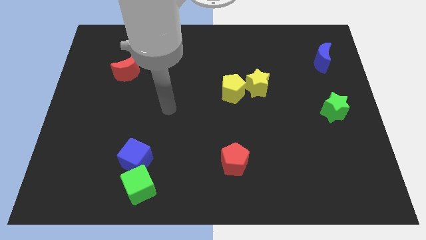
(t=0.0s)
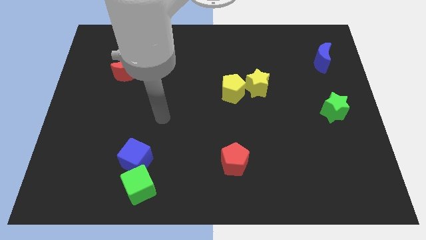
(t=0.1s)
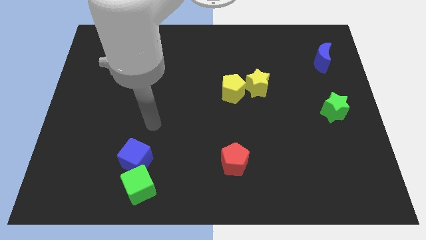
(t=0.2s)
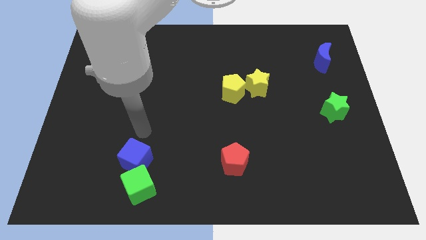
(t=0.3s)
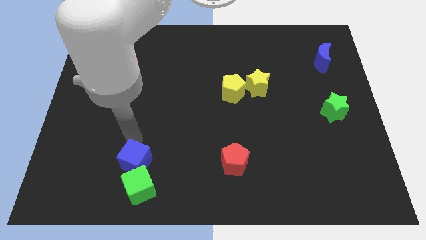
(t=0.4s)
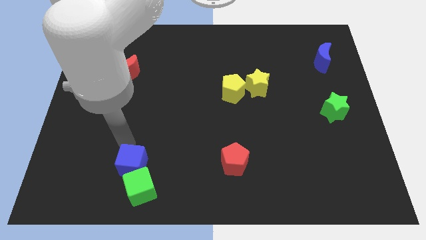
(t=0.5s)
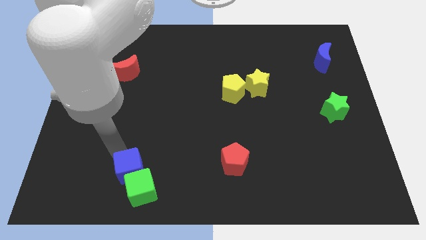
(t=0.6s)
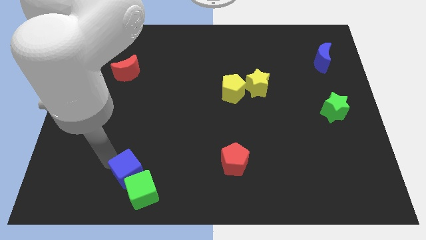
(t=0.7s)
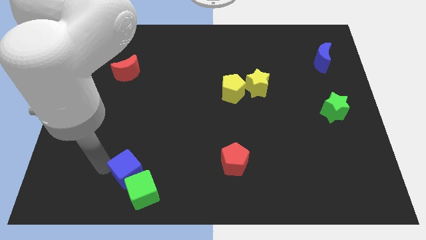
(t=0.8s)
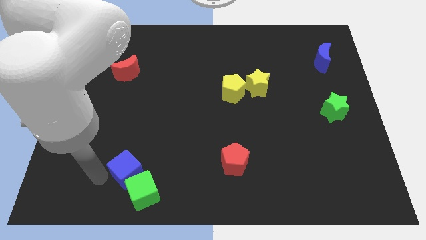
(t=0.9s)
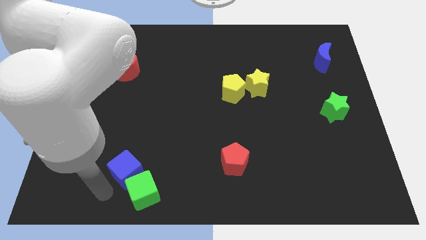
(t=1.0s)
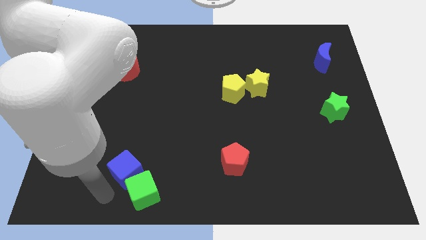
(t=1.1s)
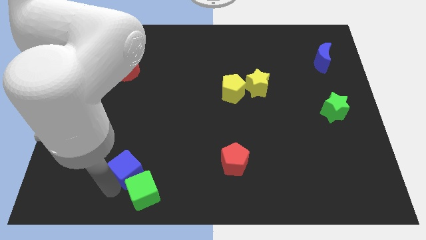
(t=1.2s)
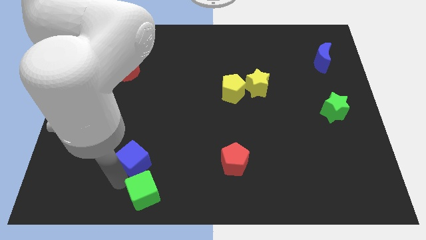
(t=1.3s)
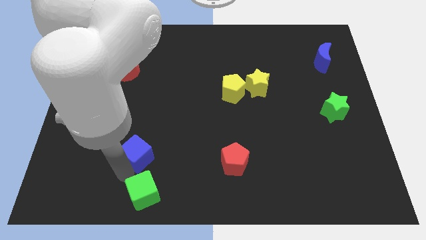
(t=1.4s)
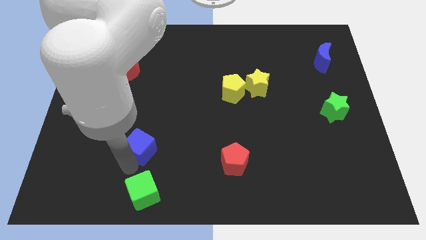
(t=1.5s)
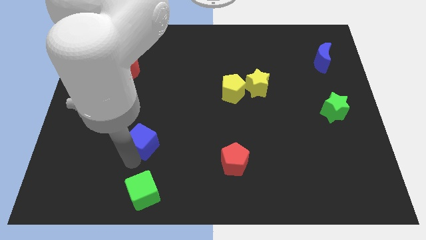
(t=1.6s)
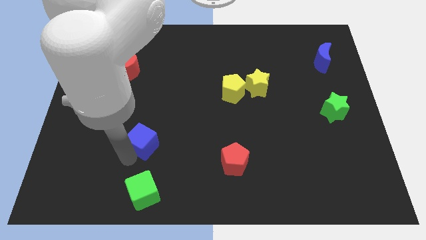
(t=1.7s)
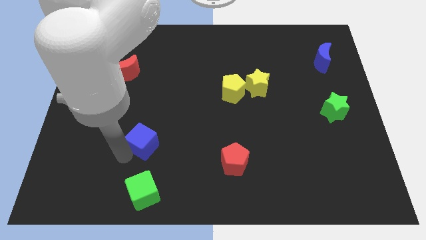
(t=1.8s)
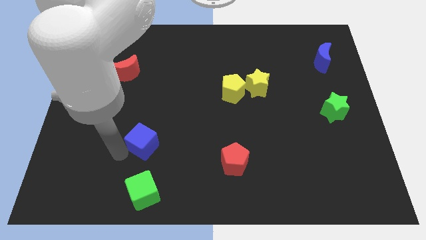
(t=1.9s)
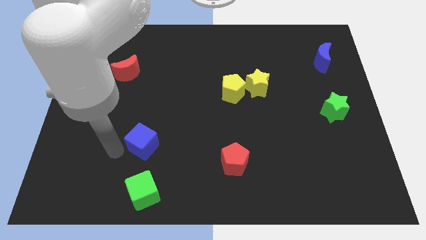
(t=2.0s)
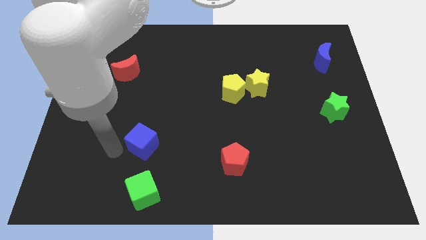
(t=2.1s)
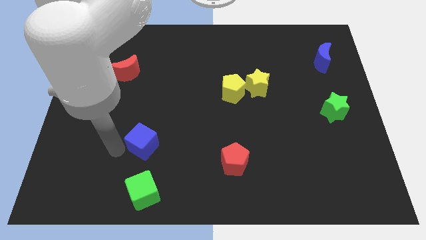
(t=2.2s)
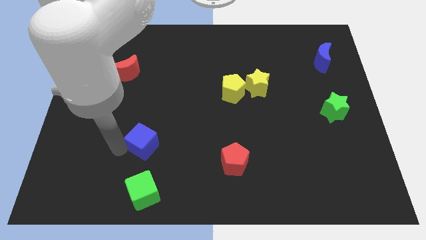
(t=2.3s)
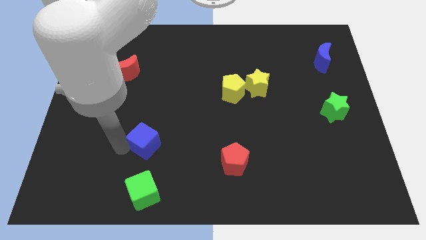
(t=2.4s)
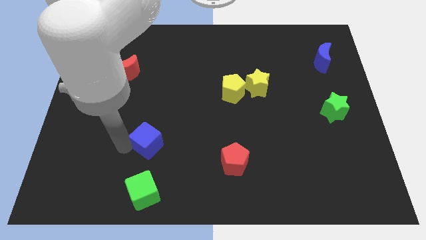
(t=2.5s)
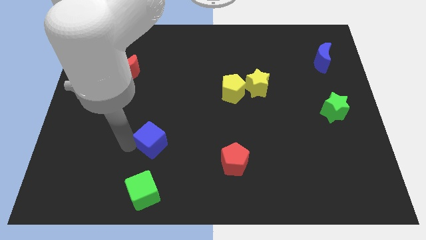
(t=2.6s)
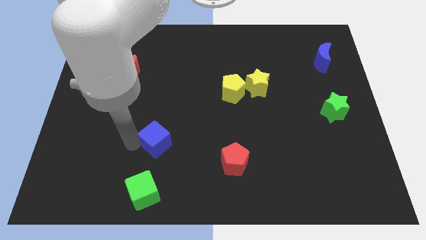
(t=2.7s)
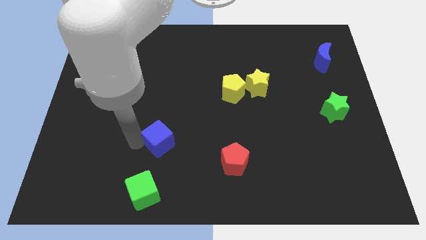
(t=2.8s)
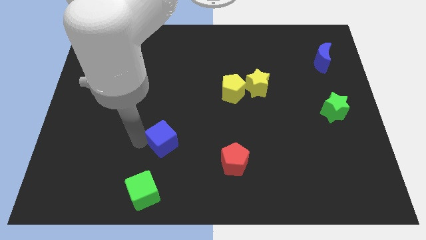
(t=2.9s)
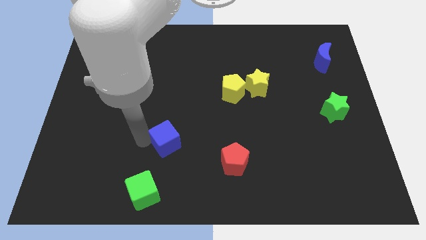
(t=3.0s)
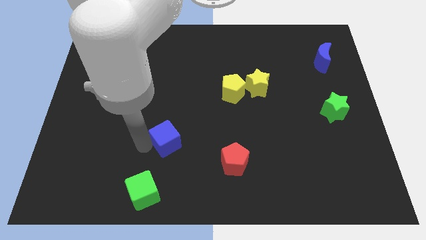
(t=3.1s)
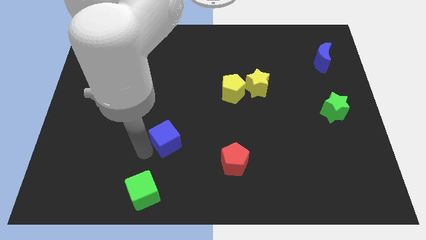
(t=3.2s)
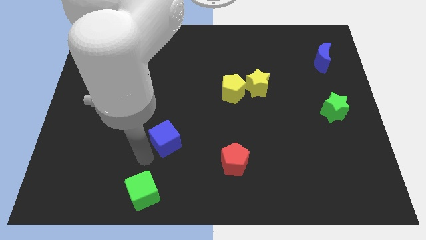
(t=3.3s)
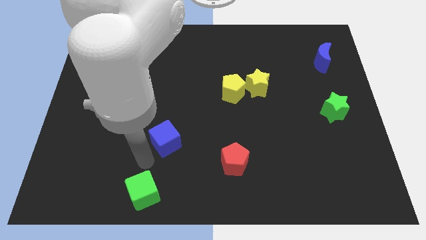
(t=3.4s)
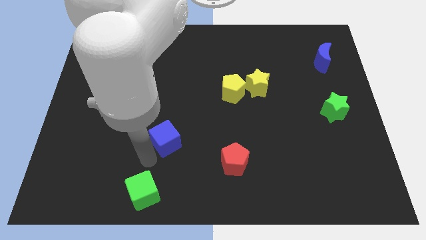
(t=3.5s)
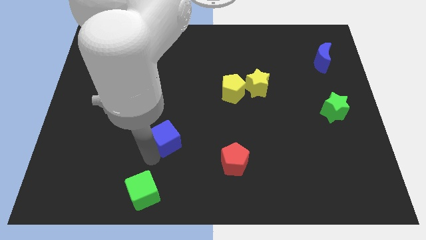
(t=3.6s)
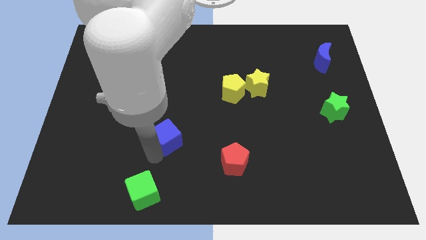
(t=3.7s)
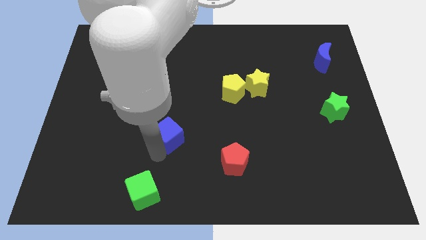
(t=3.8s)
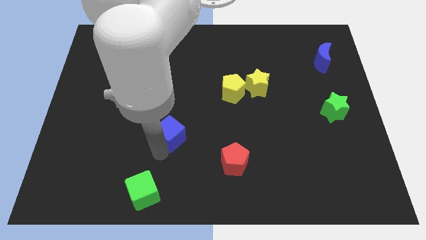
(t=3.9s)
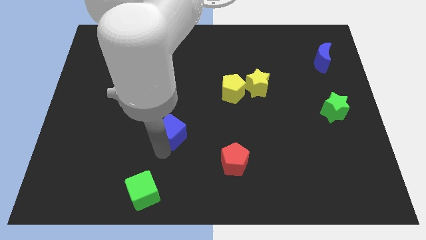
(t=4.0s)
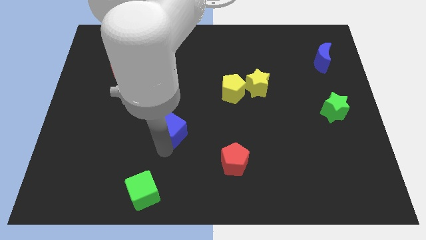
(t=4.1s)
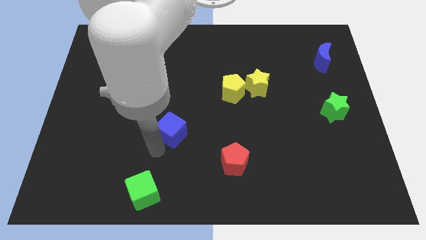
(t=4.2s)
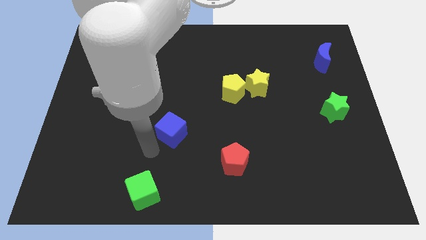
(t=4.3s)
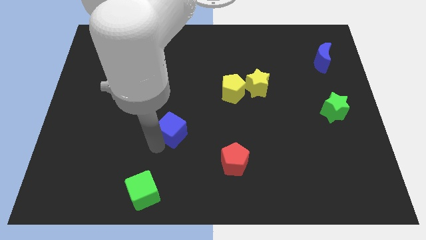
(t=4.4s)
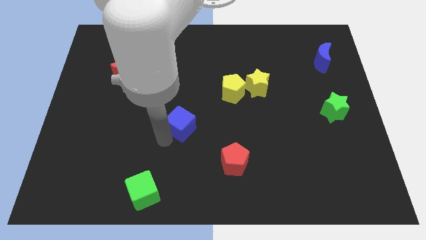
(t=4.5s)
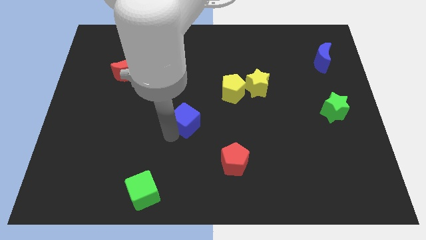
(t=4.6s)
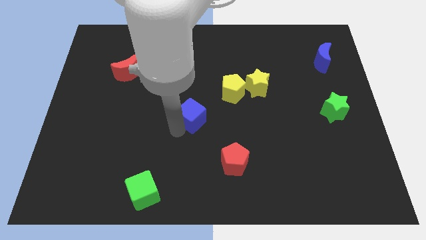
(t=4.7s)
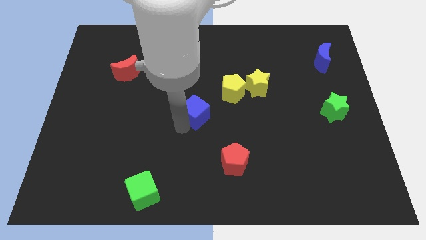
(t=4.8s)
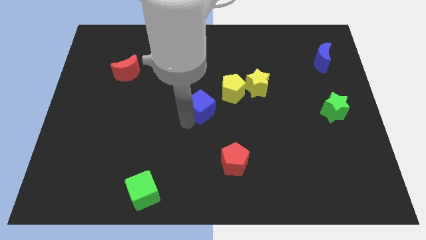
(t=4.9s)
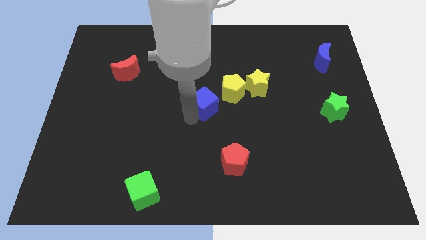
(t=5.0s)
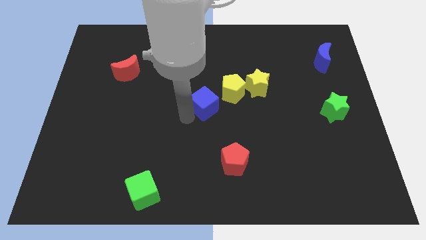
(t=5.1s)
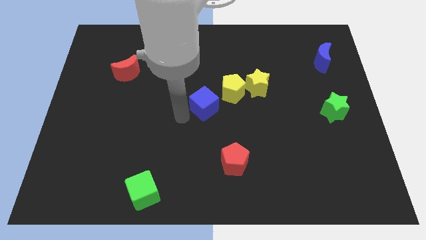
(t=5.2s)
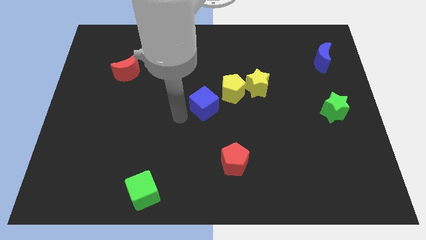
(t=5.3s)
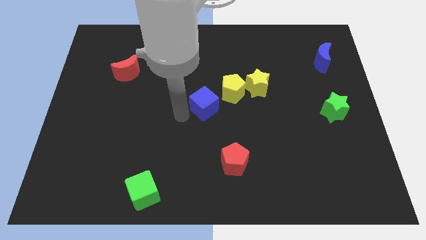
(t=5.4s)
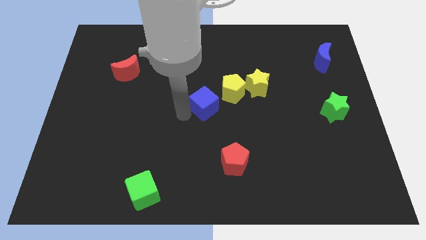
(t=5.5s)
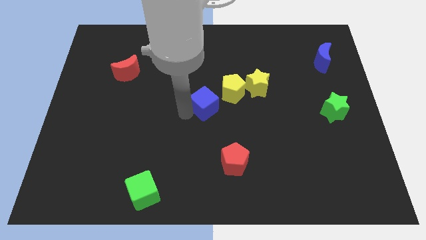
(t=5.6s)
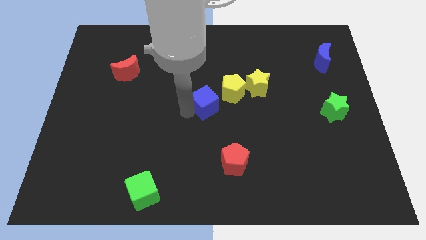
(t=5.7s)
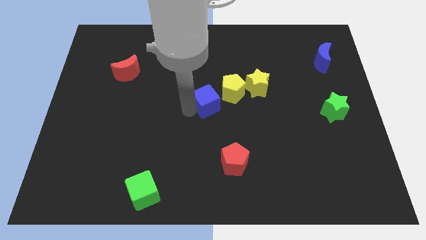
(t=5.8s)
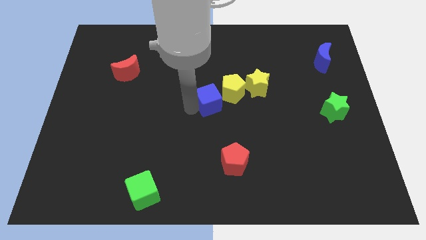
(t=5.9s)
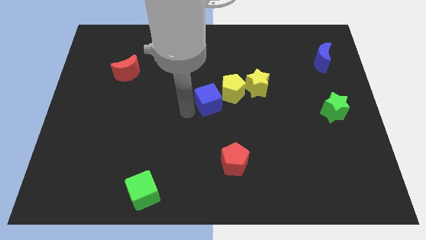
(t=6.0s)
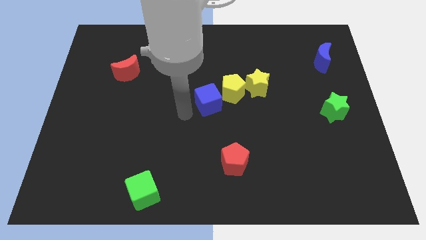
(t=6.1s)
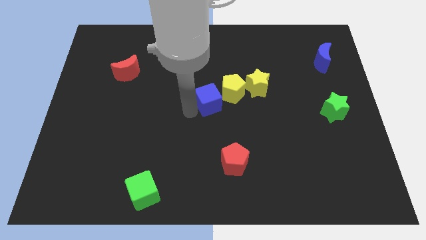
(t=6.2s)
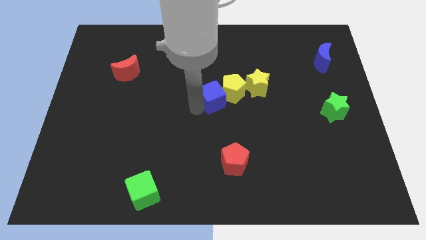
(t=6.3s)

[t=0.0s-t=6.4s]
push the blue cube next to the yellow pentagon

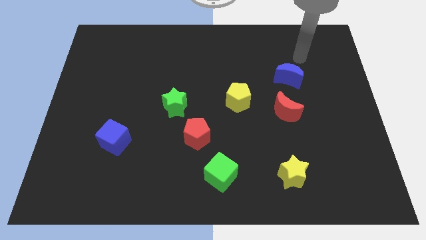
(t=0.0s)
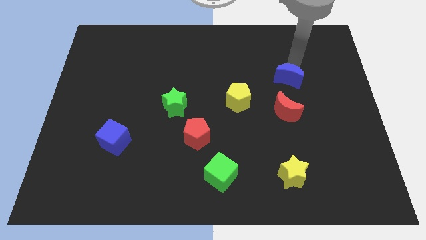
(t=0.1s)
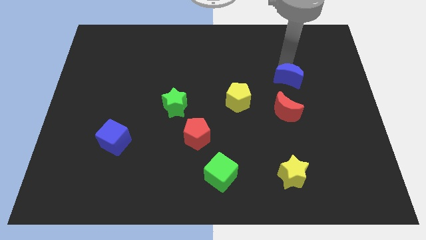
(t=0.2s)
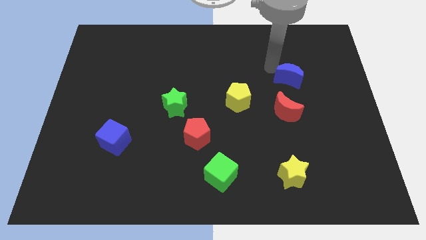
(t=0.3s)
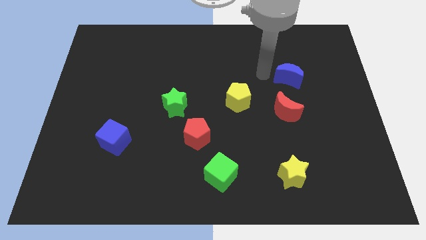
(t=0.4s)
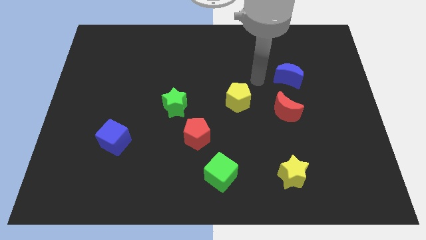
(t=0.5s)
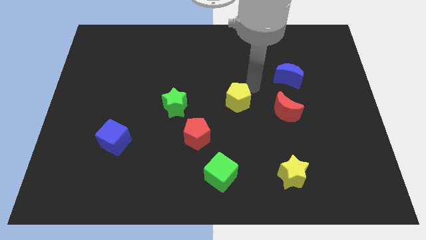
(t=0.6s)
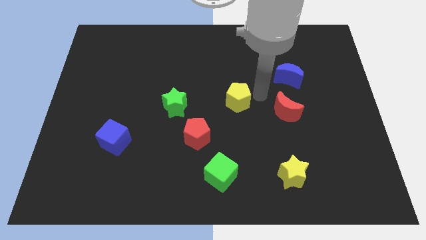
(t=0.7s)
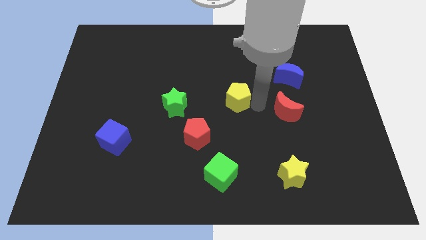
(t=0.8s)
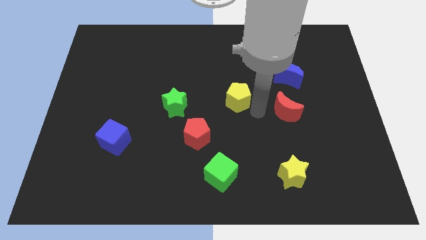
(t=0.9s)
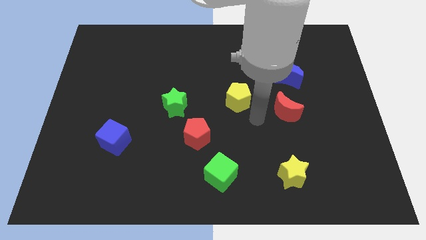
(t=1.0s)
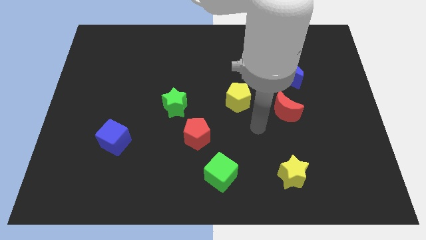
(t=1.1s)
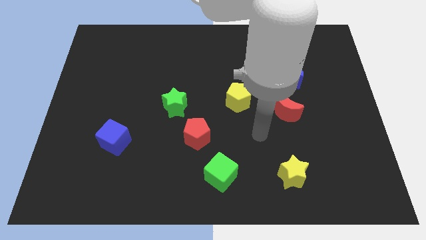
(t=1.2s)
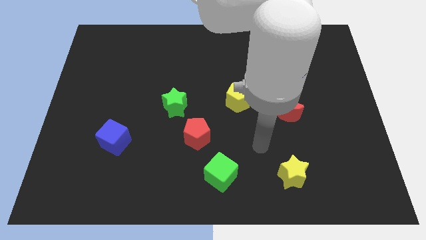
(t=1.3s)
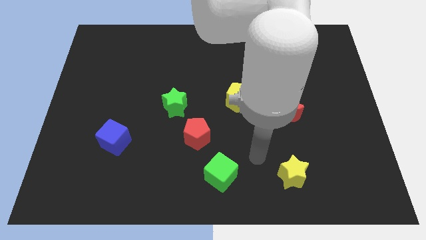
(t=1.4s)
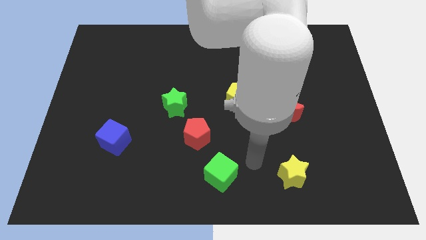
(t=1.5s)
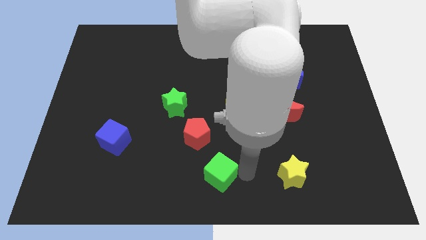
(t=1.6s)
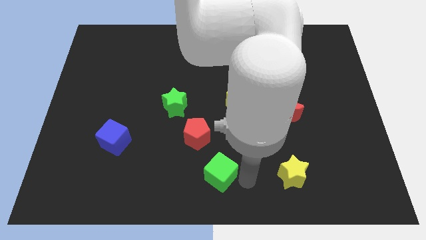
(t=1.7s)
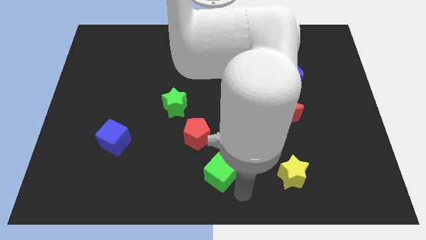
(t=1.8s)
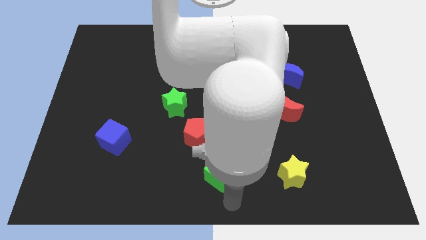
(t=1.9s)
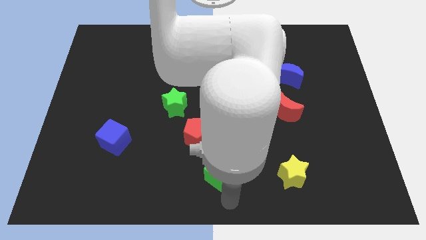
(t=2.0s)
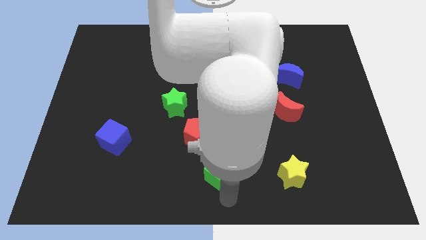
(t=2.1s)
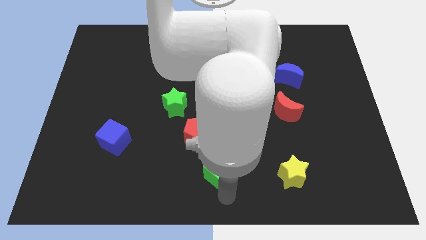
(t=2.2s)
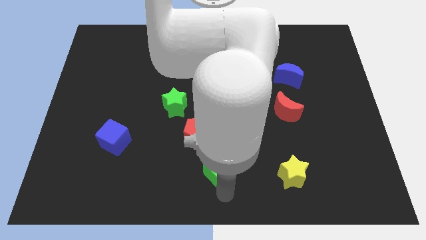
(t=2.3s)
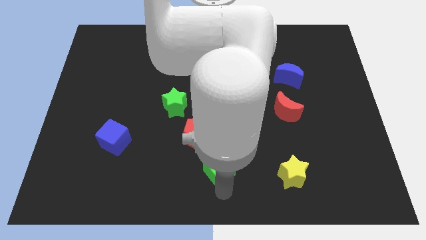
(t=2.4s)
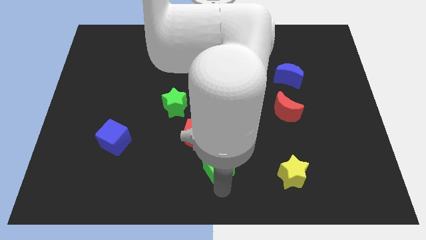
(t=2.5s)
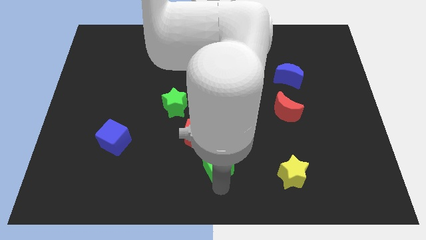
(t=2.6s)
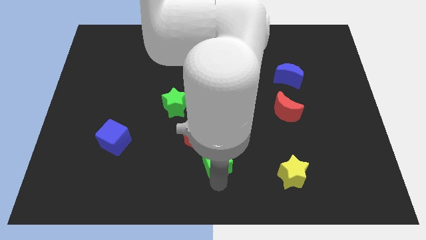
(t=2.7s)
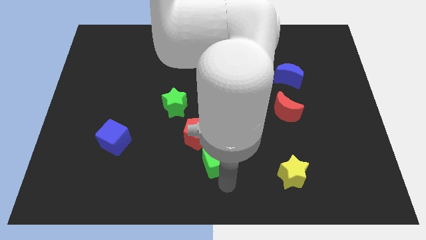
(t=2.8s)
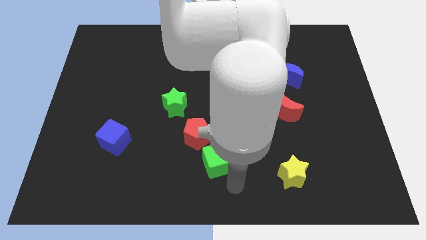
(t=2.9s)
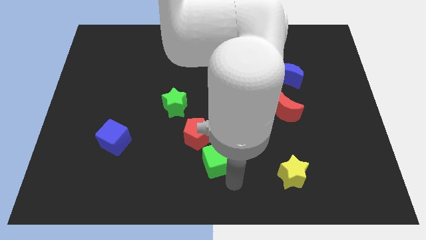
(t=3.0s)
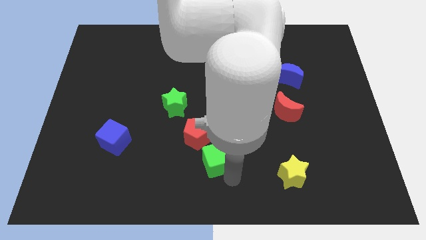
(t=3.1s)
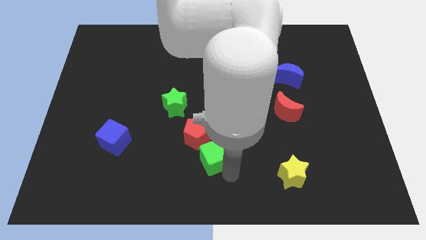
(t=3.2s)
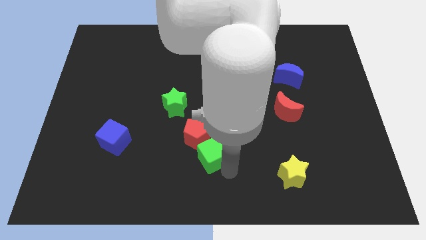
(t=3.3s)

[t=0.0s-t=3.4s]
move the green cube close to the red pentagon
